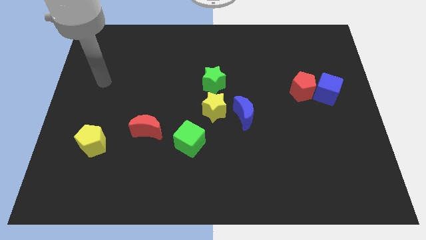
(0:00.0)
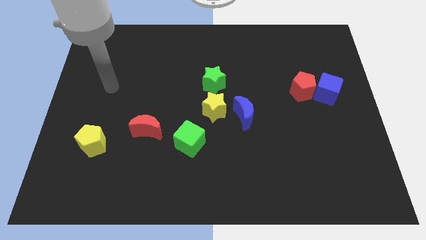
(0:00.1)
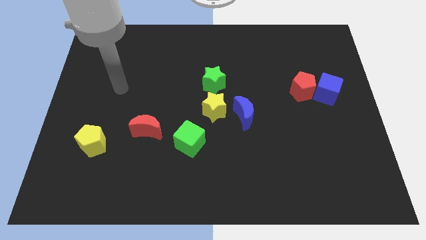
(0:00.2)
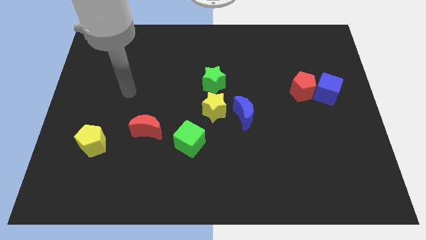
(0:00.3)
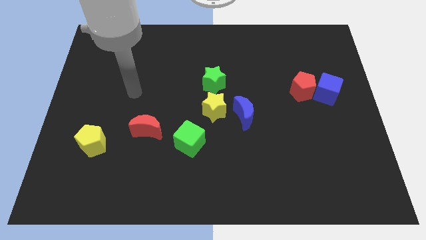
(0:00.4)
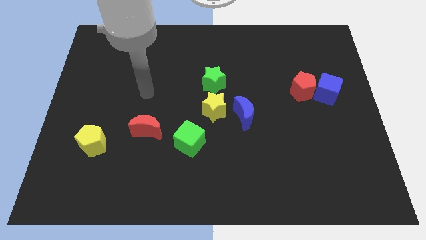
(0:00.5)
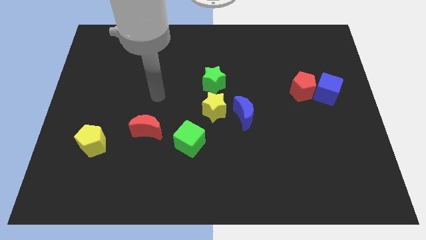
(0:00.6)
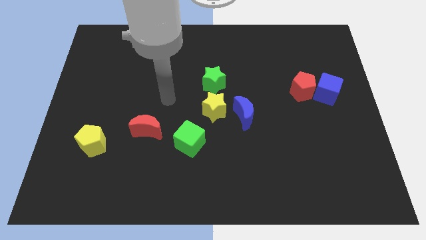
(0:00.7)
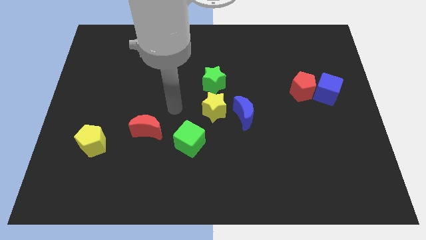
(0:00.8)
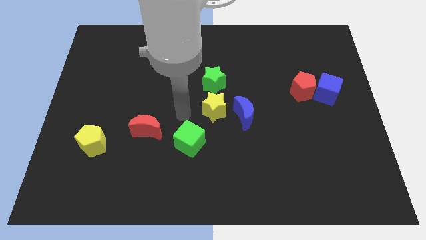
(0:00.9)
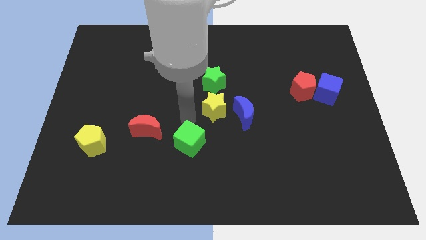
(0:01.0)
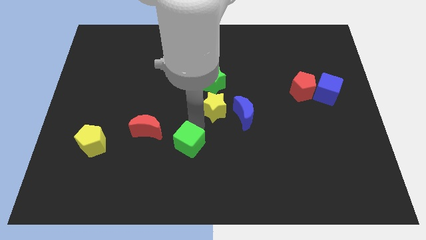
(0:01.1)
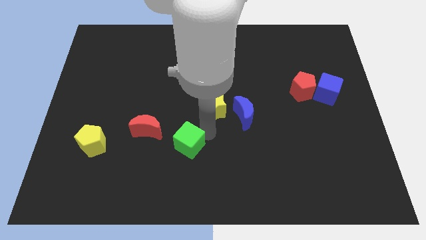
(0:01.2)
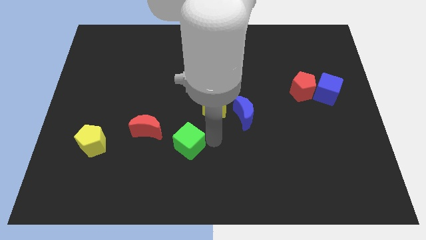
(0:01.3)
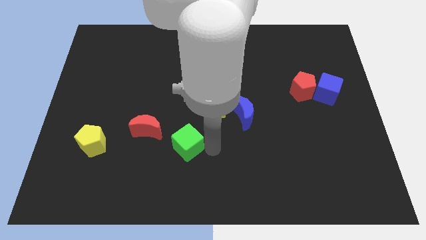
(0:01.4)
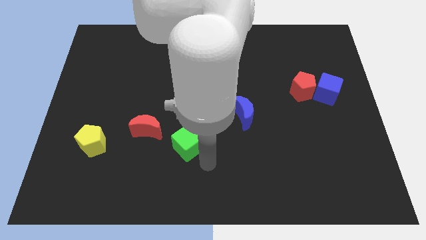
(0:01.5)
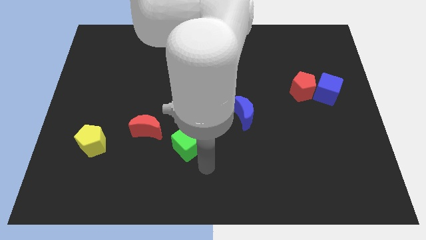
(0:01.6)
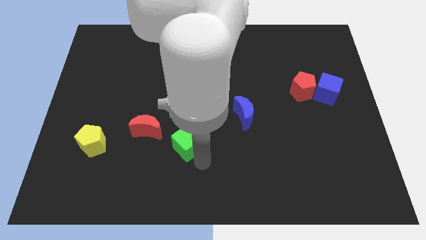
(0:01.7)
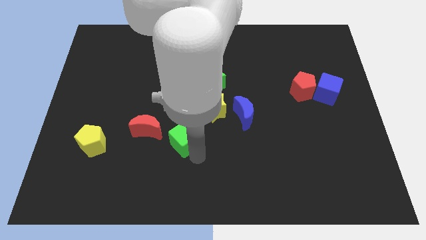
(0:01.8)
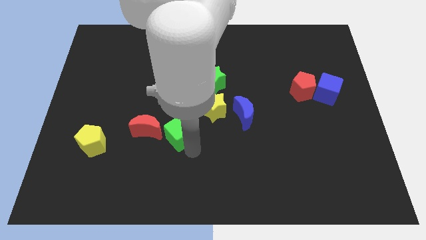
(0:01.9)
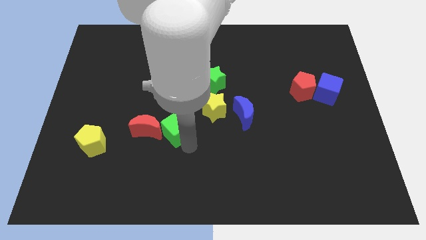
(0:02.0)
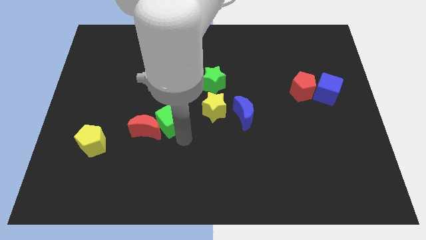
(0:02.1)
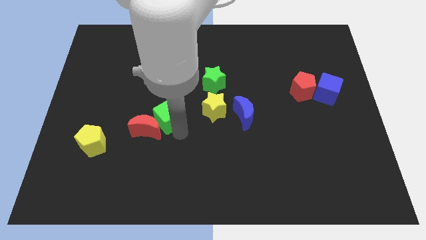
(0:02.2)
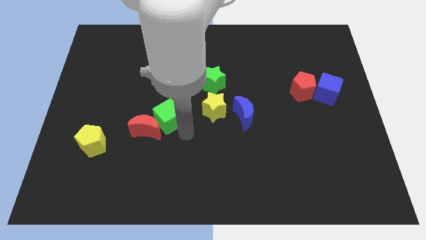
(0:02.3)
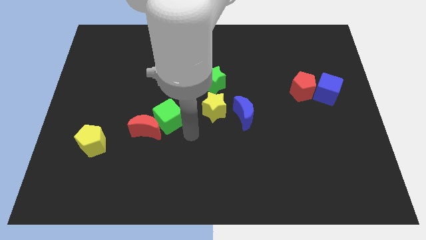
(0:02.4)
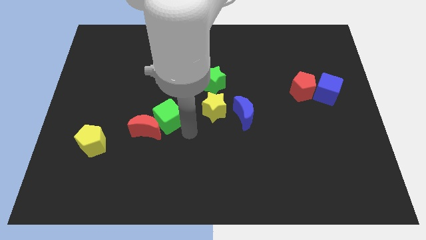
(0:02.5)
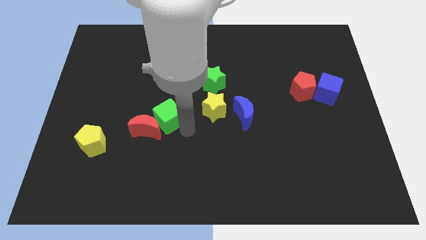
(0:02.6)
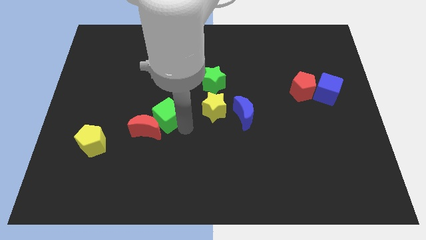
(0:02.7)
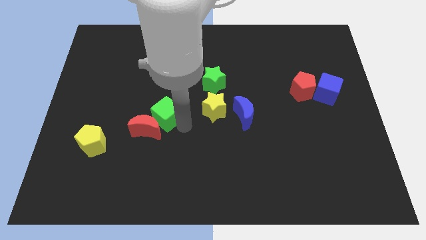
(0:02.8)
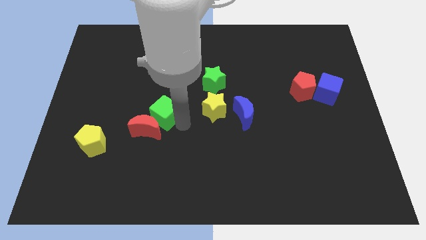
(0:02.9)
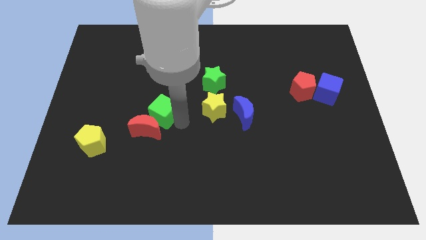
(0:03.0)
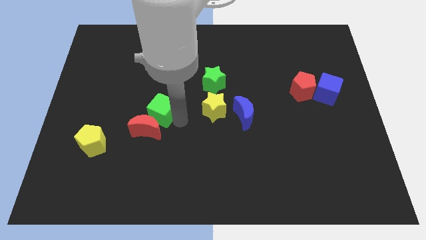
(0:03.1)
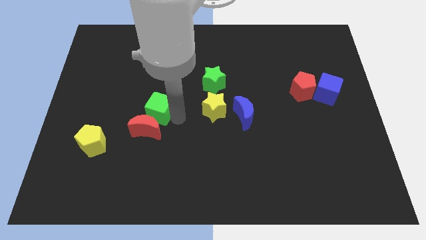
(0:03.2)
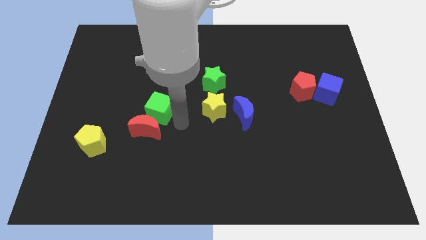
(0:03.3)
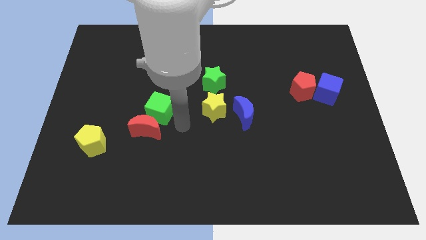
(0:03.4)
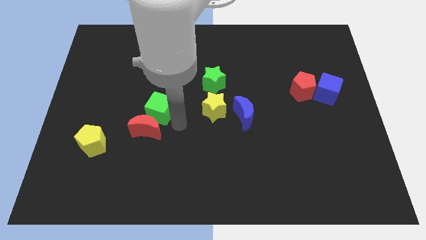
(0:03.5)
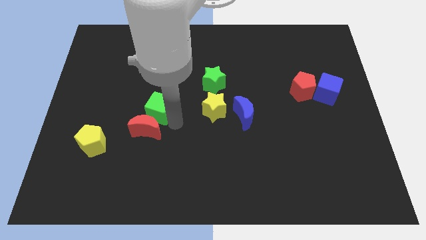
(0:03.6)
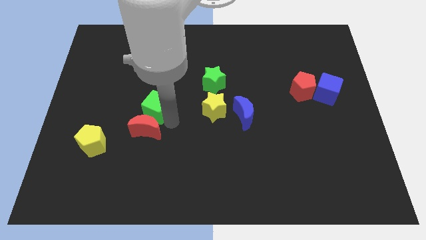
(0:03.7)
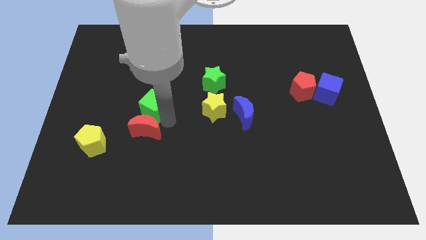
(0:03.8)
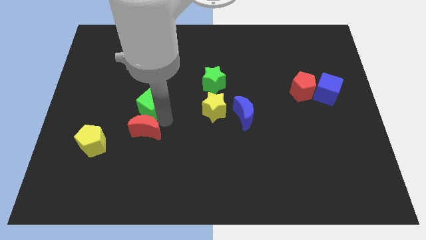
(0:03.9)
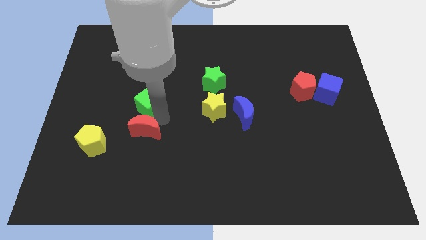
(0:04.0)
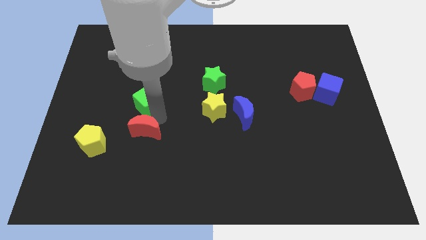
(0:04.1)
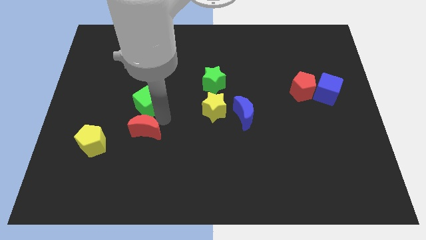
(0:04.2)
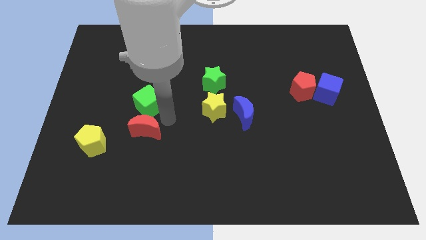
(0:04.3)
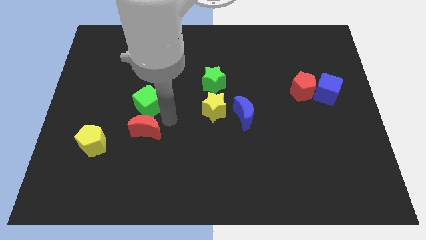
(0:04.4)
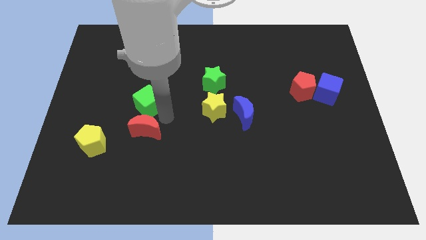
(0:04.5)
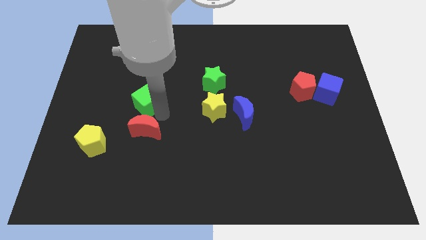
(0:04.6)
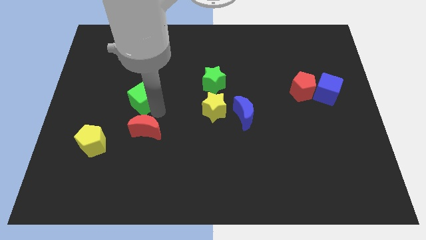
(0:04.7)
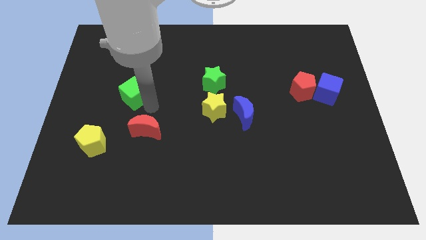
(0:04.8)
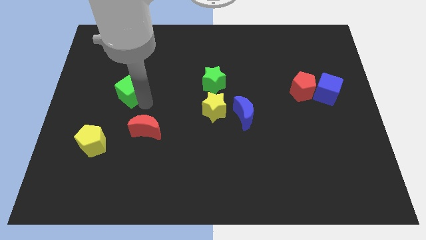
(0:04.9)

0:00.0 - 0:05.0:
move the green cube up and left

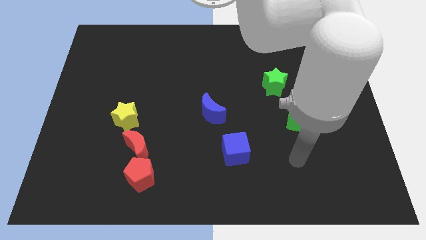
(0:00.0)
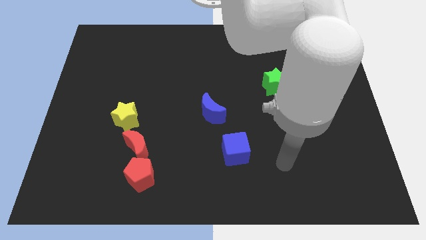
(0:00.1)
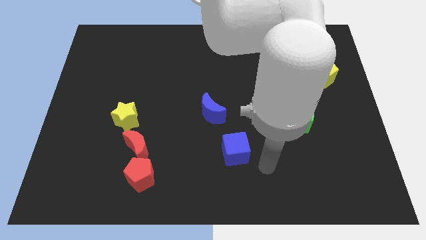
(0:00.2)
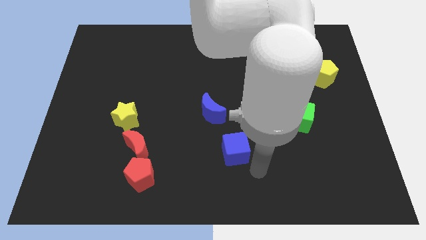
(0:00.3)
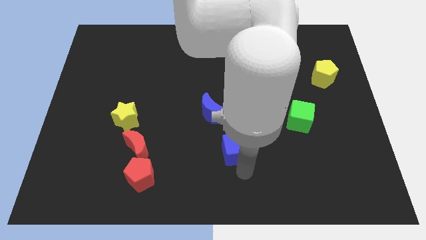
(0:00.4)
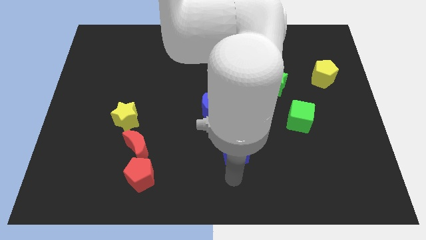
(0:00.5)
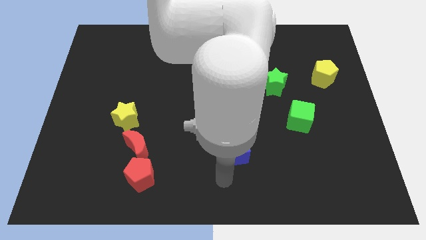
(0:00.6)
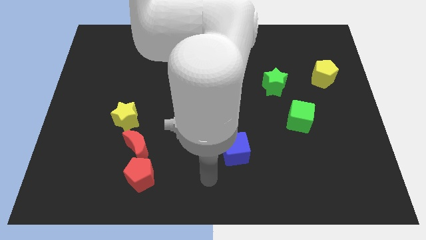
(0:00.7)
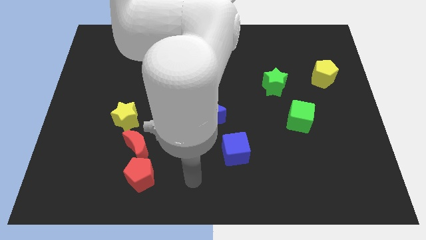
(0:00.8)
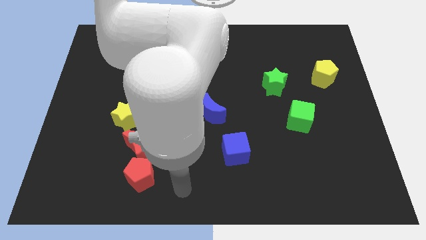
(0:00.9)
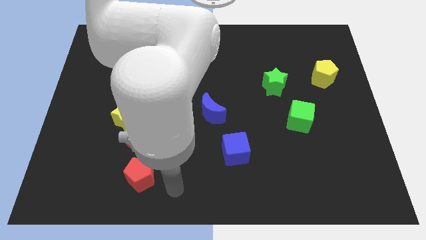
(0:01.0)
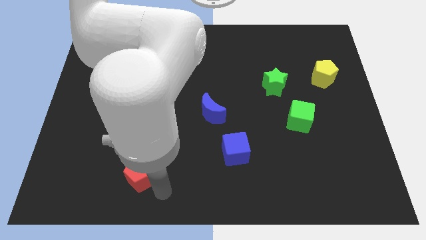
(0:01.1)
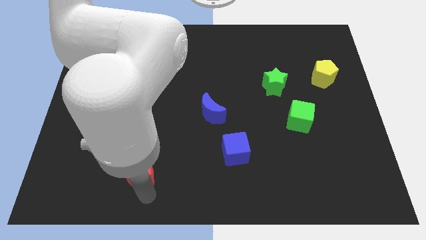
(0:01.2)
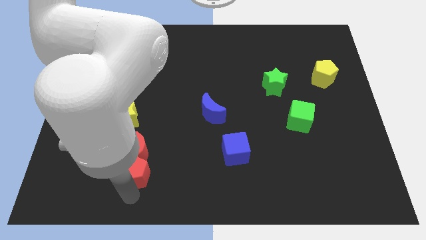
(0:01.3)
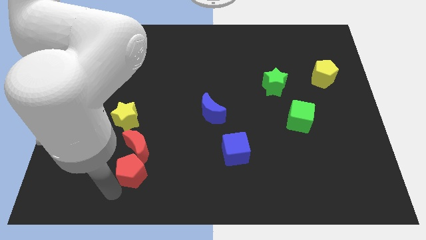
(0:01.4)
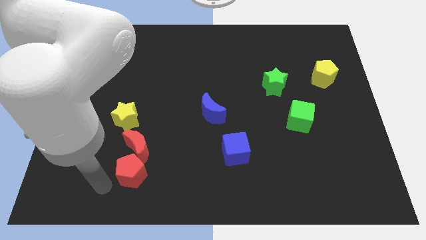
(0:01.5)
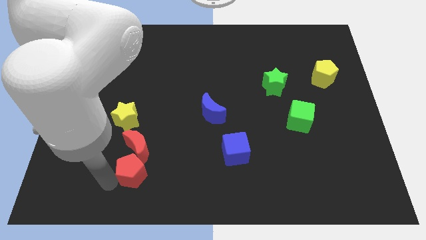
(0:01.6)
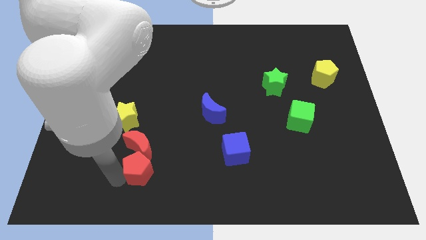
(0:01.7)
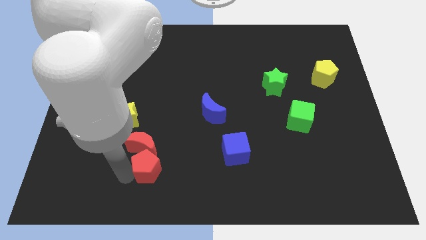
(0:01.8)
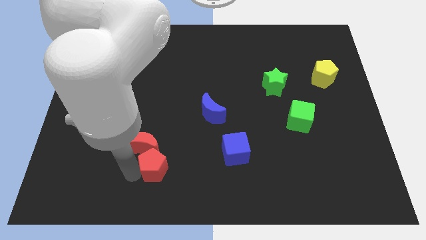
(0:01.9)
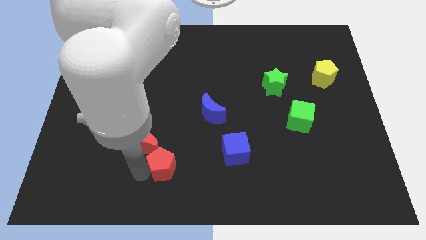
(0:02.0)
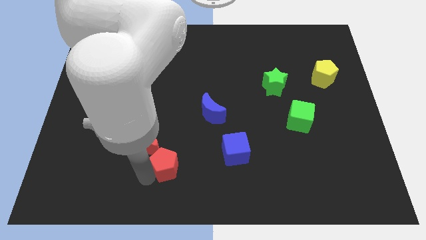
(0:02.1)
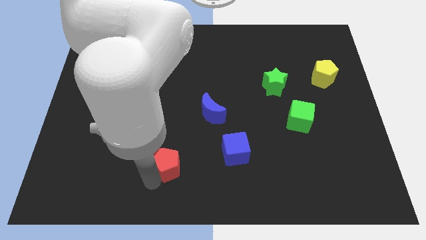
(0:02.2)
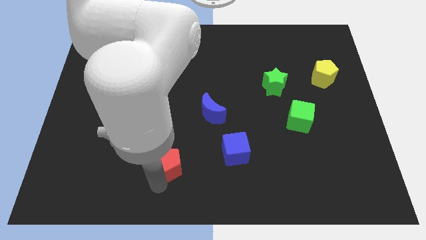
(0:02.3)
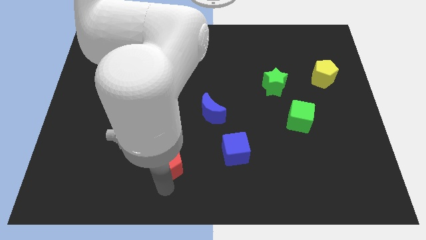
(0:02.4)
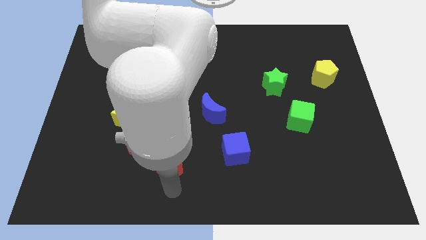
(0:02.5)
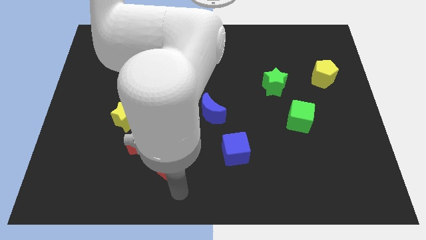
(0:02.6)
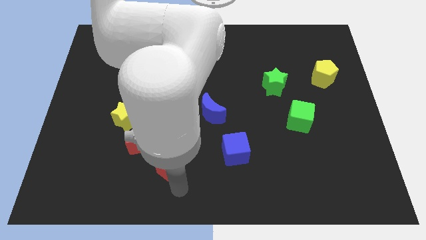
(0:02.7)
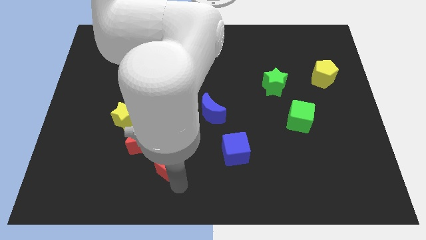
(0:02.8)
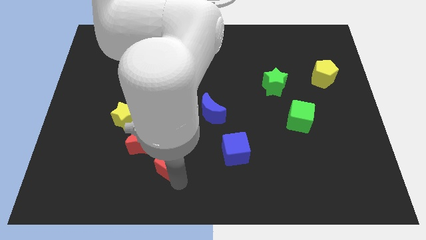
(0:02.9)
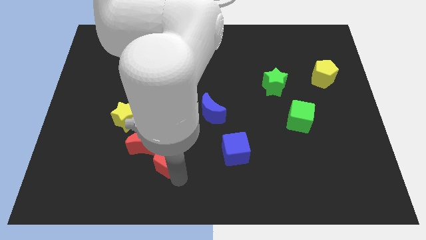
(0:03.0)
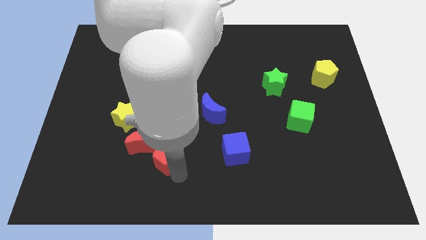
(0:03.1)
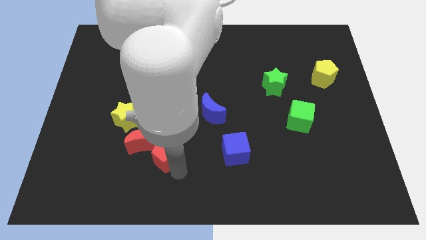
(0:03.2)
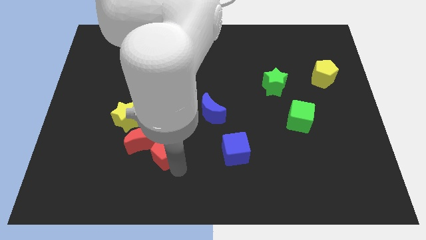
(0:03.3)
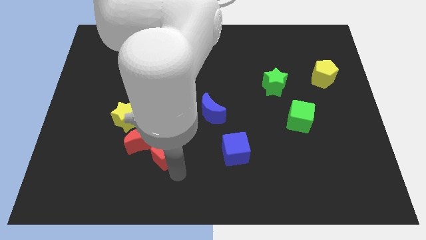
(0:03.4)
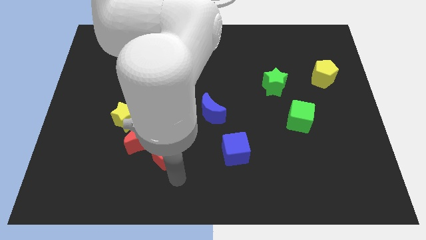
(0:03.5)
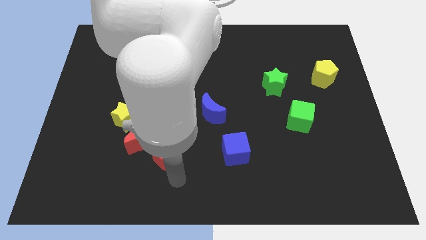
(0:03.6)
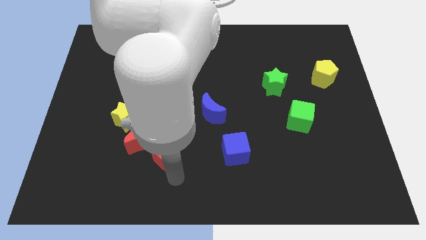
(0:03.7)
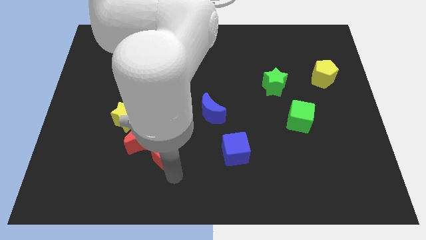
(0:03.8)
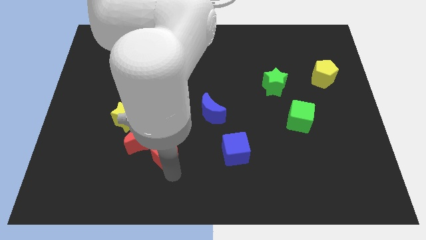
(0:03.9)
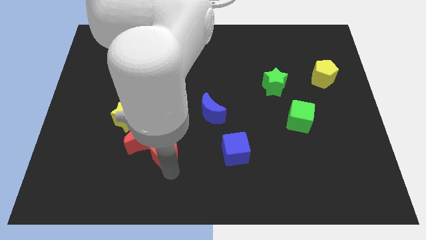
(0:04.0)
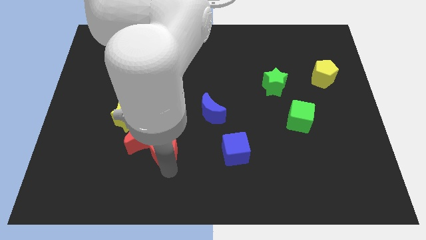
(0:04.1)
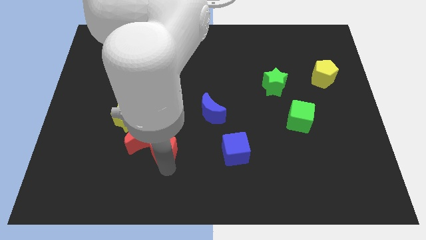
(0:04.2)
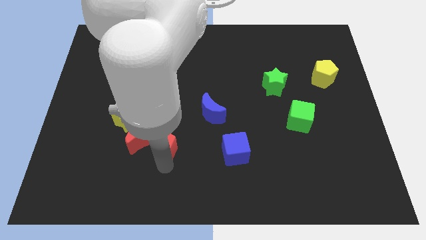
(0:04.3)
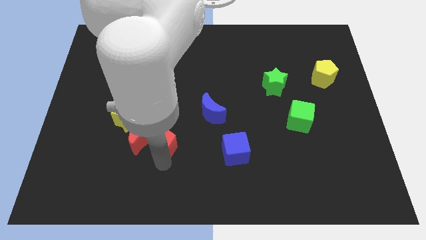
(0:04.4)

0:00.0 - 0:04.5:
slightly slide the red pentagon up
